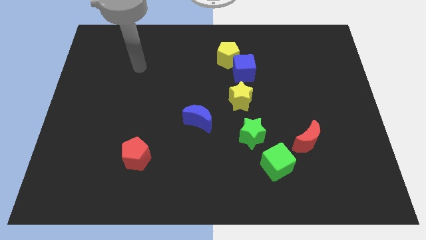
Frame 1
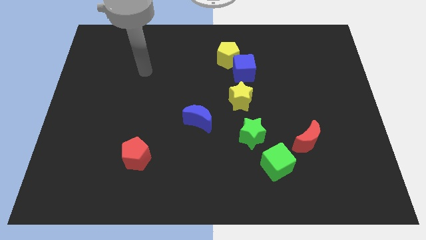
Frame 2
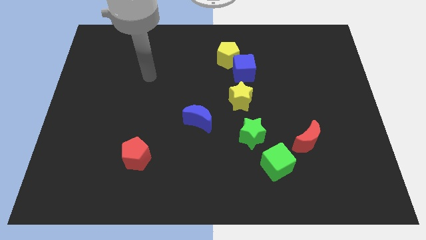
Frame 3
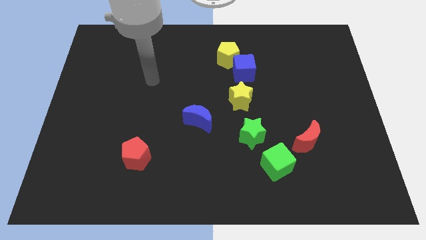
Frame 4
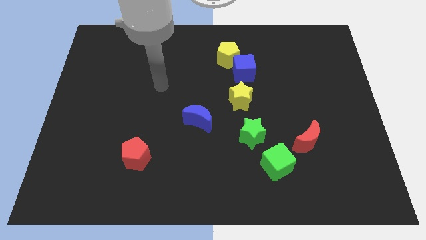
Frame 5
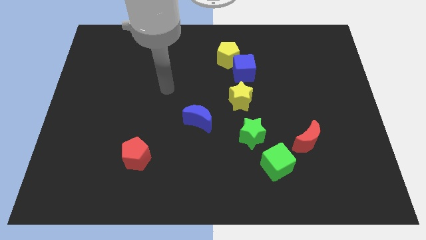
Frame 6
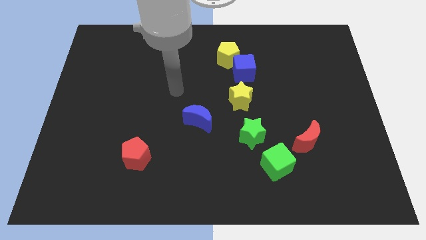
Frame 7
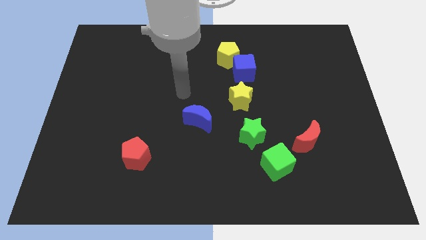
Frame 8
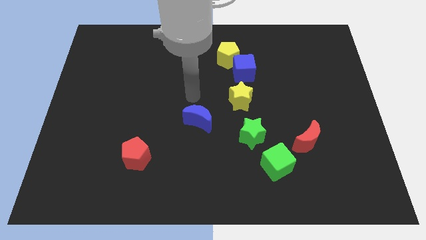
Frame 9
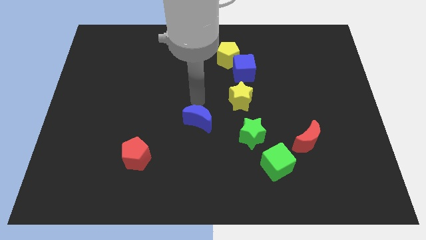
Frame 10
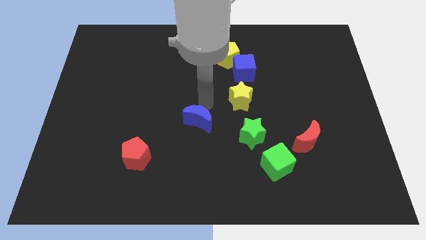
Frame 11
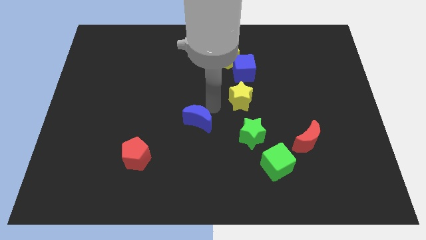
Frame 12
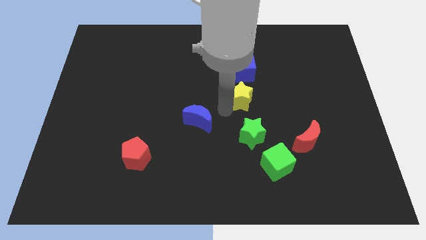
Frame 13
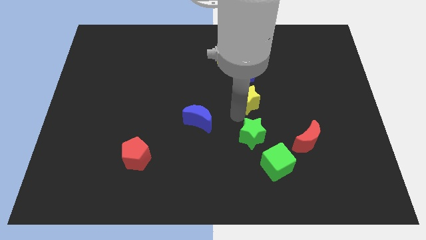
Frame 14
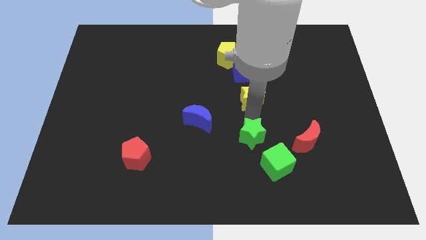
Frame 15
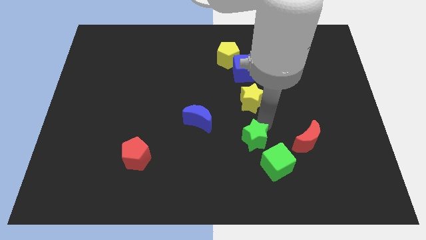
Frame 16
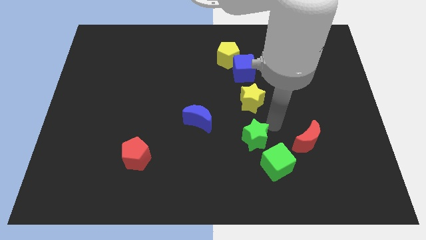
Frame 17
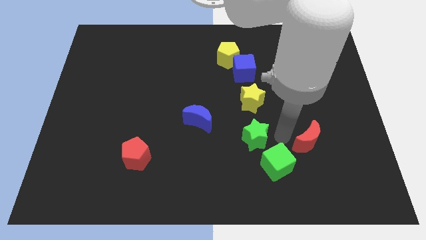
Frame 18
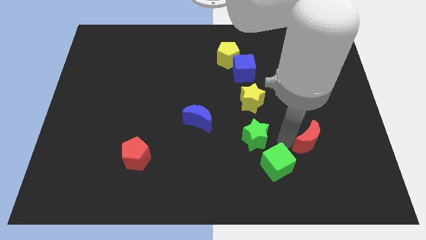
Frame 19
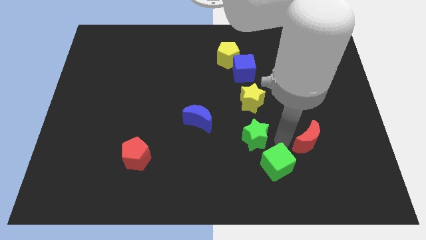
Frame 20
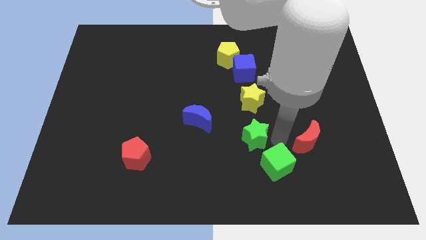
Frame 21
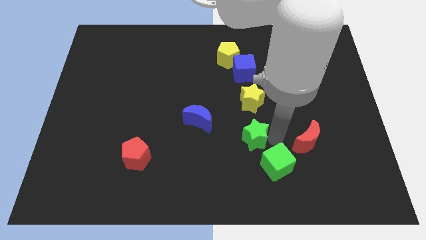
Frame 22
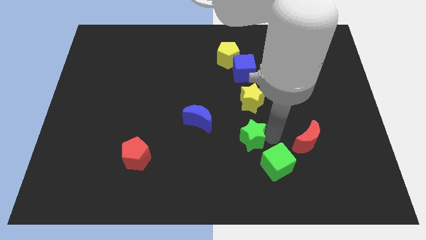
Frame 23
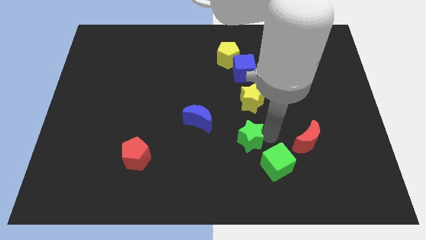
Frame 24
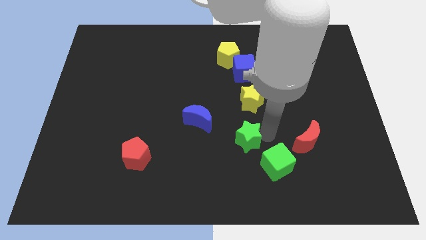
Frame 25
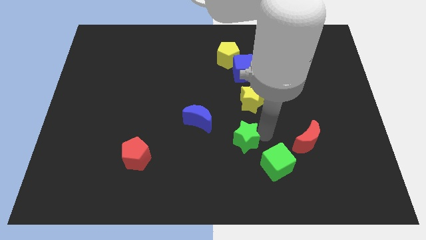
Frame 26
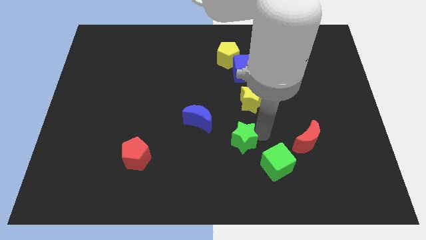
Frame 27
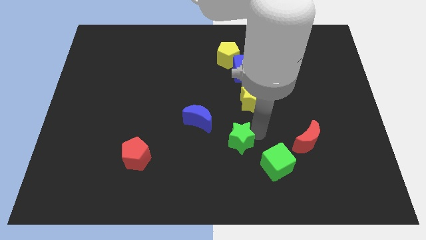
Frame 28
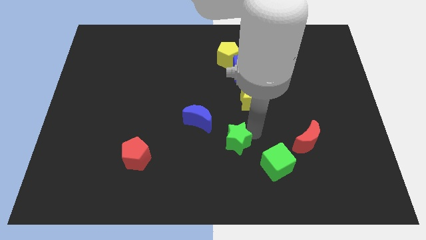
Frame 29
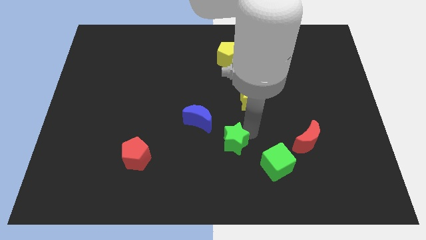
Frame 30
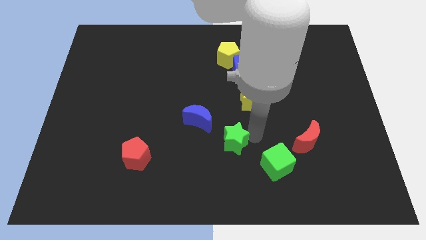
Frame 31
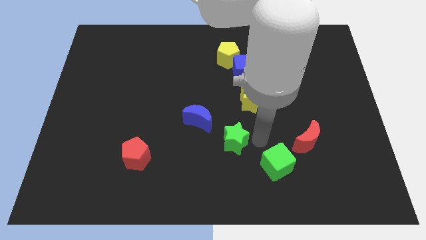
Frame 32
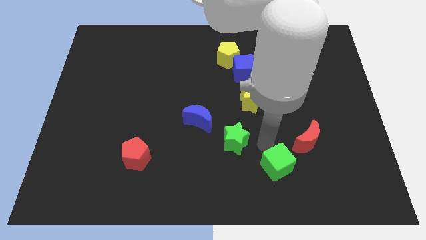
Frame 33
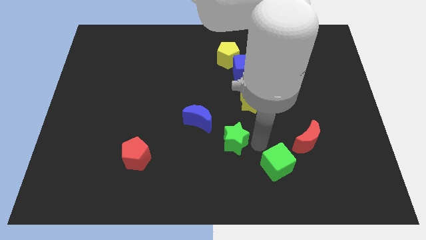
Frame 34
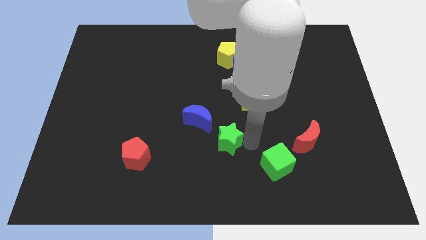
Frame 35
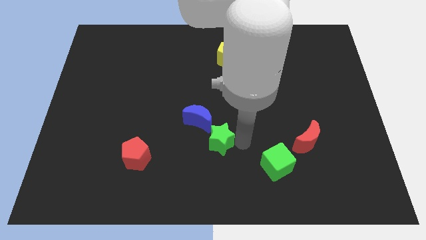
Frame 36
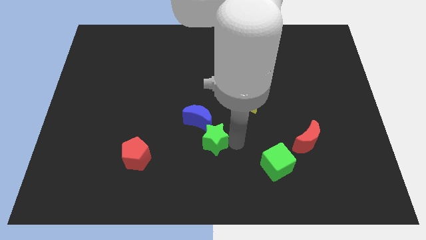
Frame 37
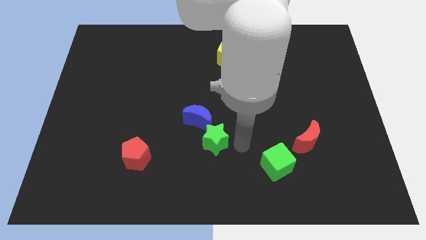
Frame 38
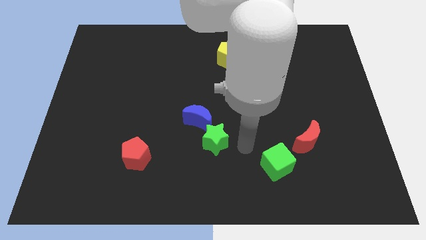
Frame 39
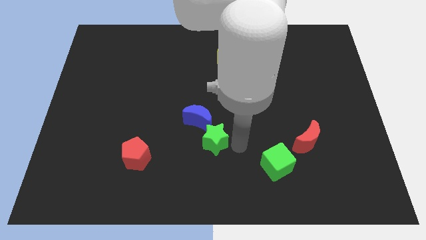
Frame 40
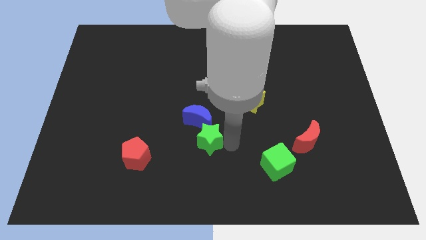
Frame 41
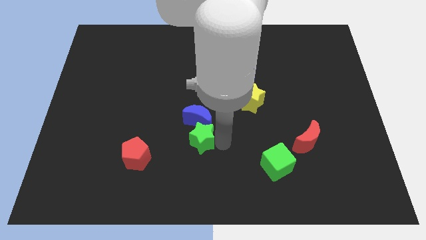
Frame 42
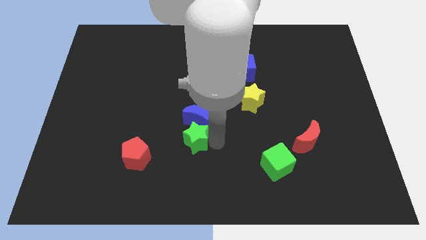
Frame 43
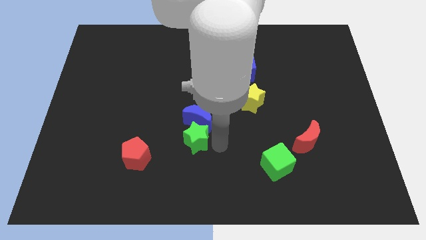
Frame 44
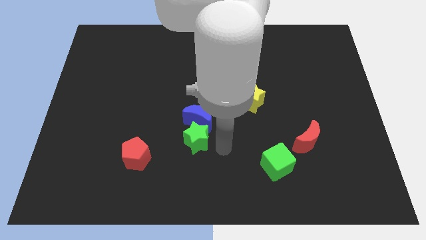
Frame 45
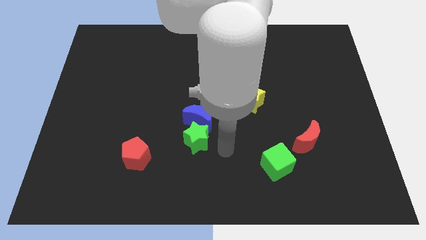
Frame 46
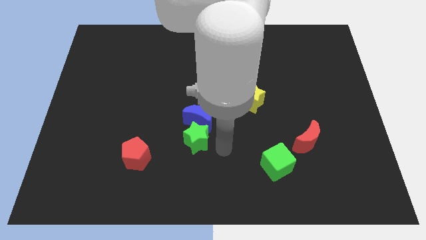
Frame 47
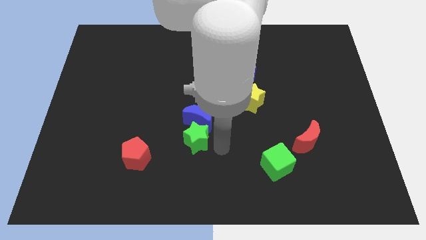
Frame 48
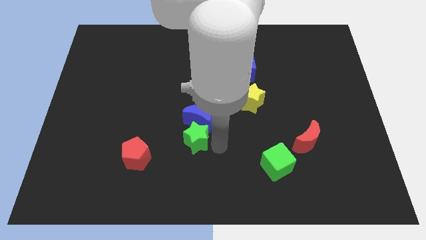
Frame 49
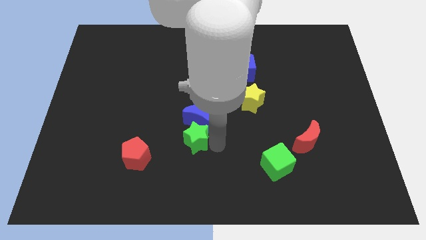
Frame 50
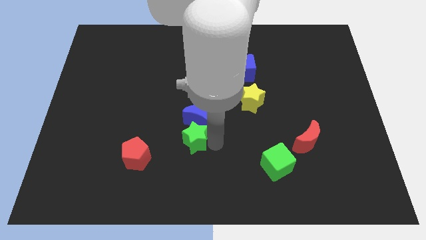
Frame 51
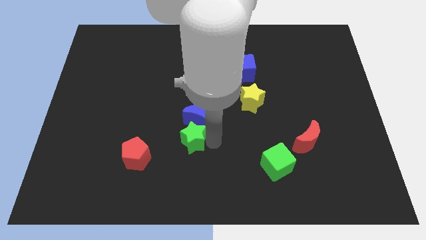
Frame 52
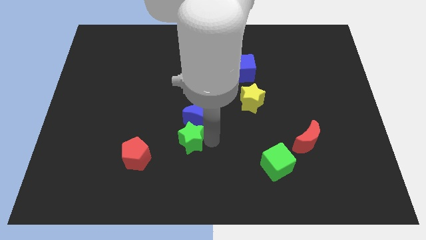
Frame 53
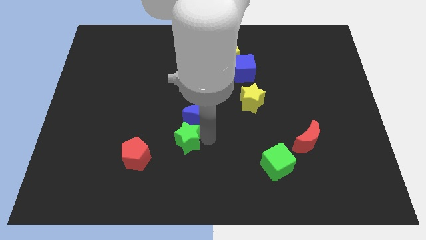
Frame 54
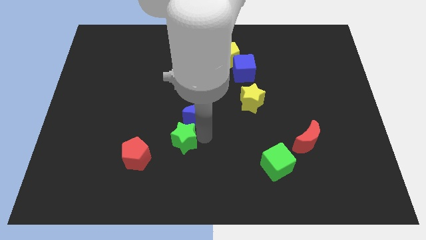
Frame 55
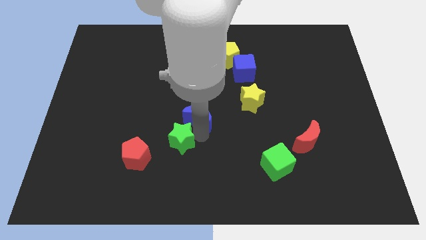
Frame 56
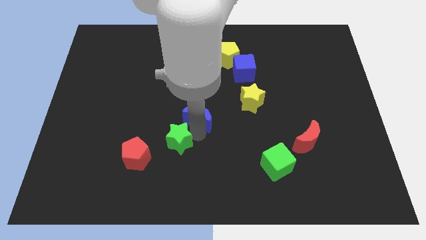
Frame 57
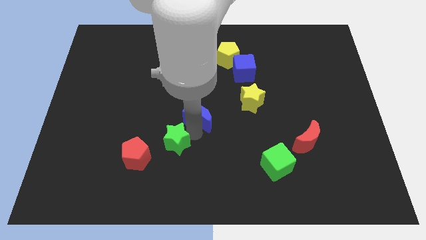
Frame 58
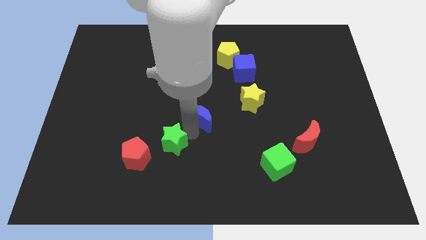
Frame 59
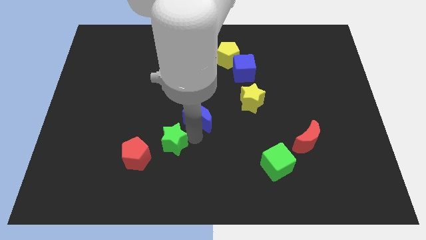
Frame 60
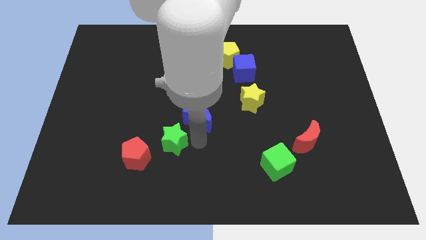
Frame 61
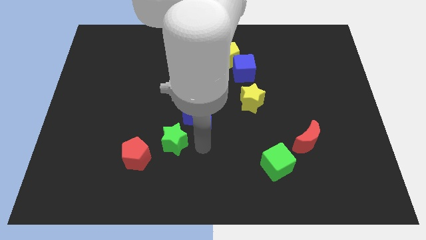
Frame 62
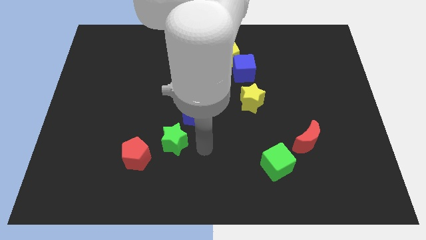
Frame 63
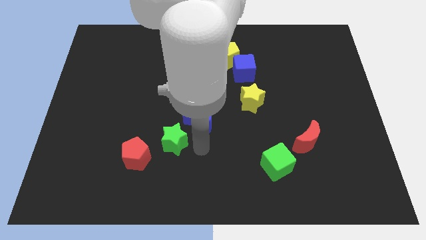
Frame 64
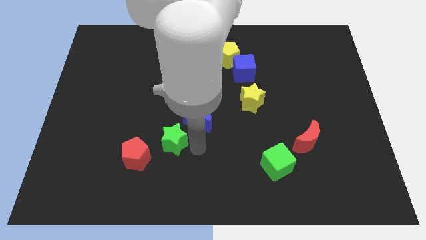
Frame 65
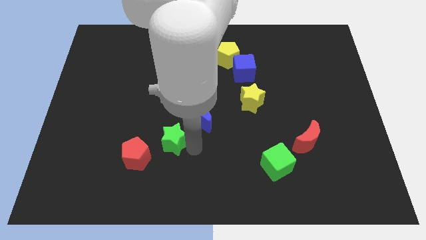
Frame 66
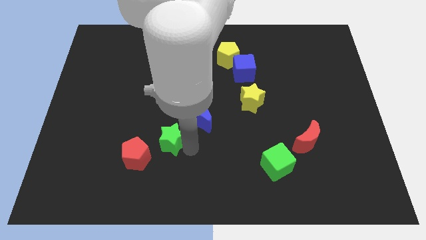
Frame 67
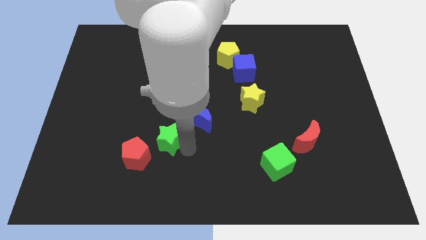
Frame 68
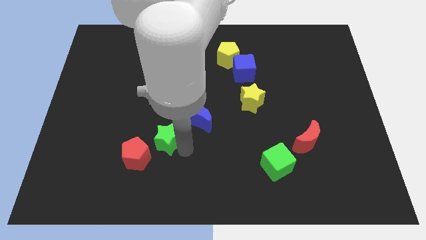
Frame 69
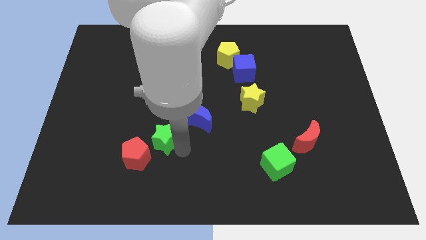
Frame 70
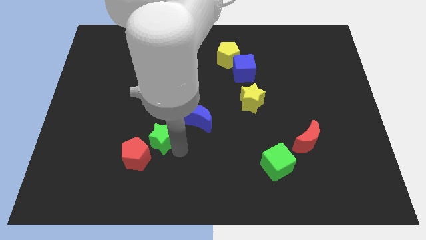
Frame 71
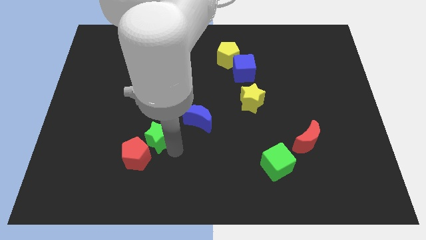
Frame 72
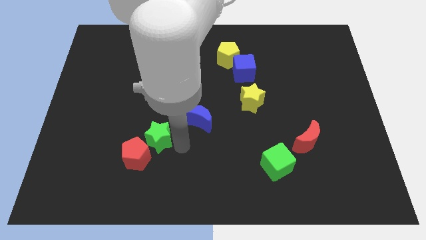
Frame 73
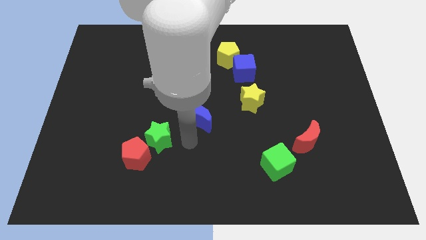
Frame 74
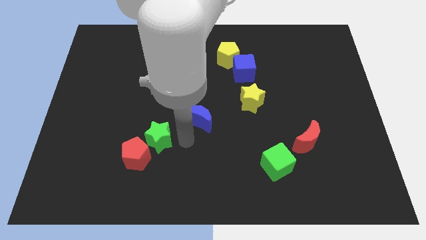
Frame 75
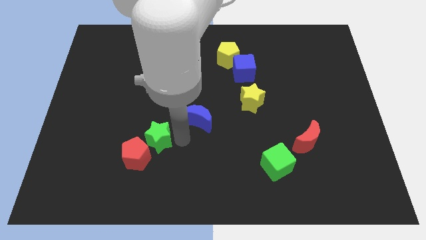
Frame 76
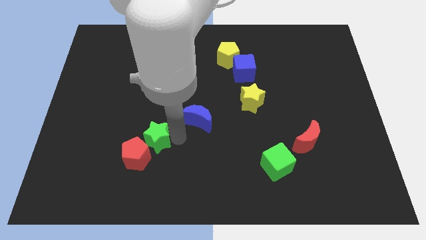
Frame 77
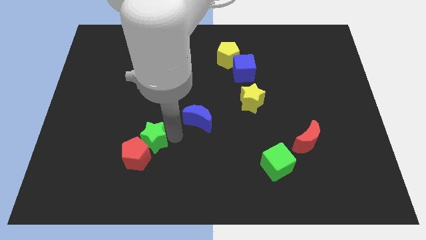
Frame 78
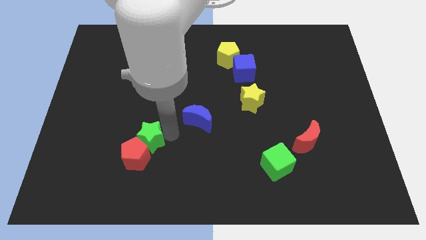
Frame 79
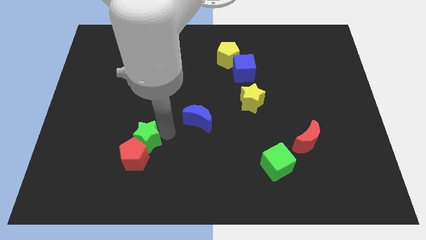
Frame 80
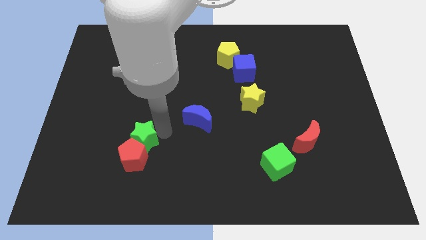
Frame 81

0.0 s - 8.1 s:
push the green star diagonally up and to the left of the red pentagon
